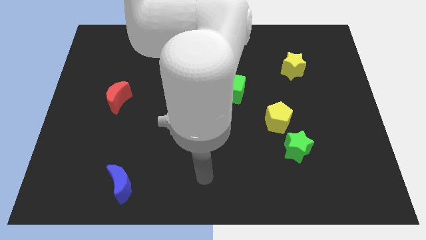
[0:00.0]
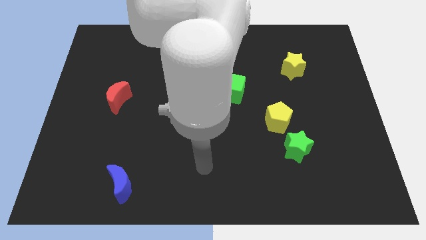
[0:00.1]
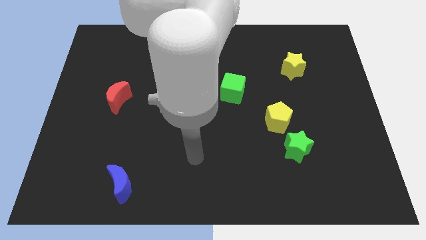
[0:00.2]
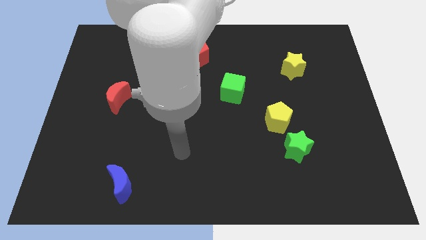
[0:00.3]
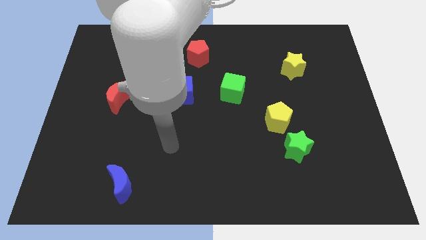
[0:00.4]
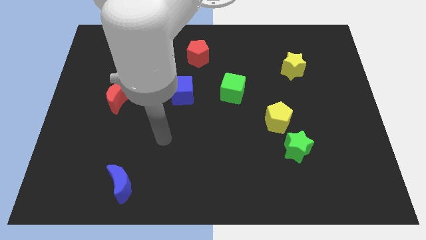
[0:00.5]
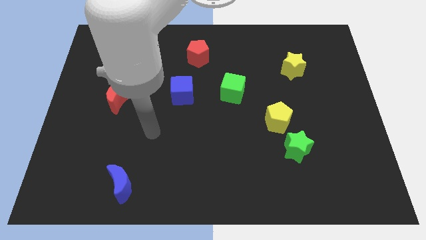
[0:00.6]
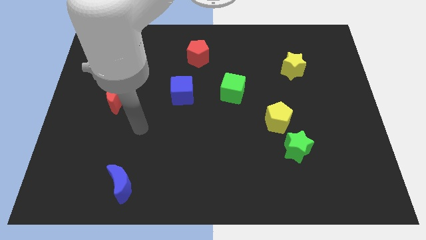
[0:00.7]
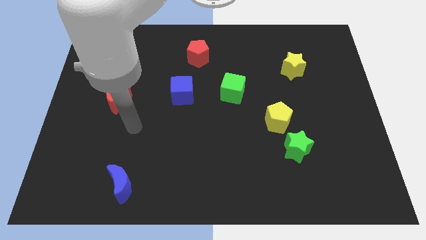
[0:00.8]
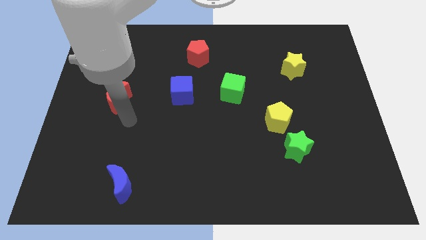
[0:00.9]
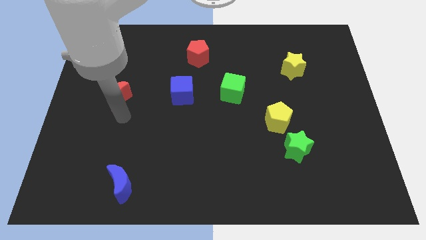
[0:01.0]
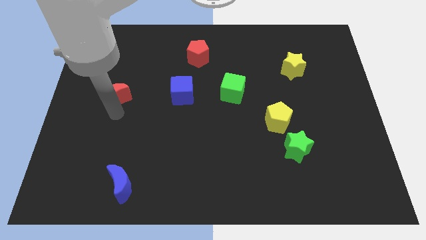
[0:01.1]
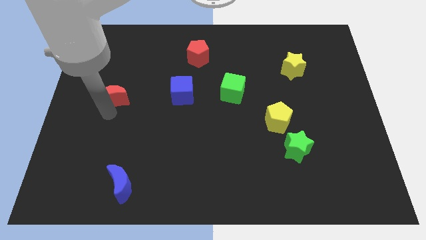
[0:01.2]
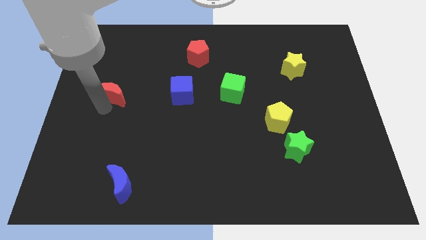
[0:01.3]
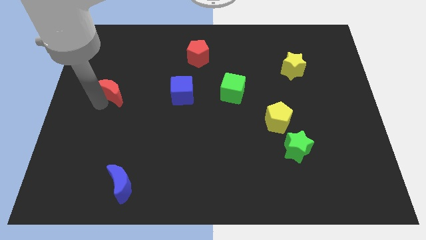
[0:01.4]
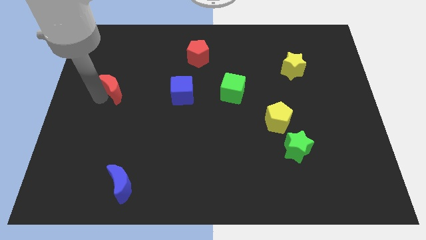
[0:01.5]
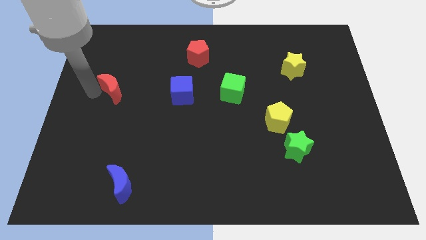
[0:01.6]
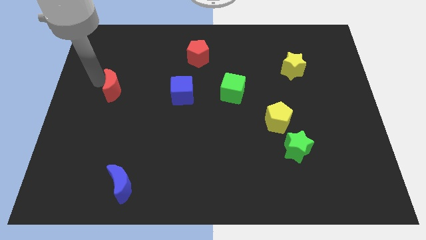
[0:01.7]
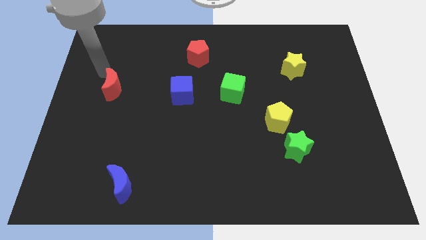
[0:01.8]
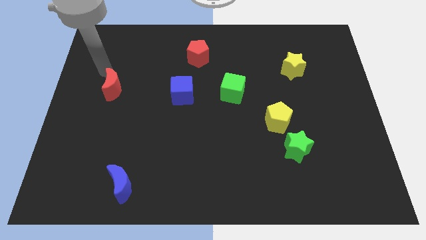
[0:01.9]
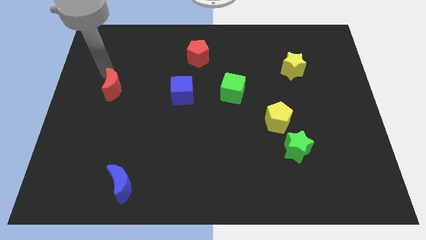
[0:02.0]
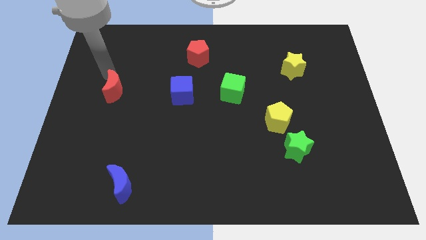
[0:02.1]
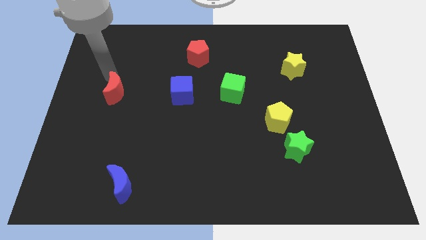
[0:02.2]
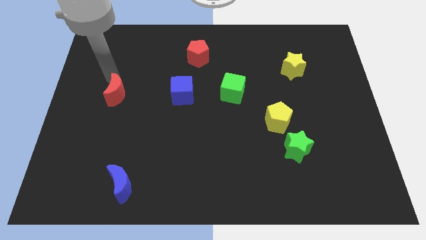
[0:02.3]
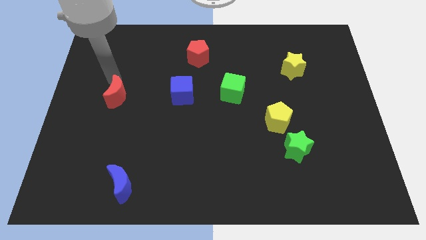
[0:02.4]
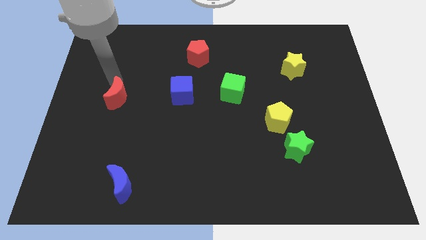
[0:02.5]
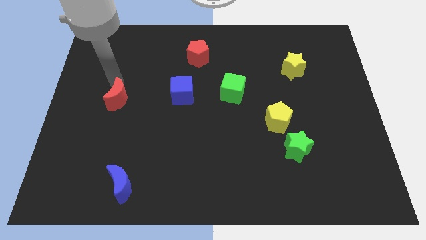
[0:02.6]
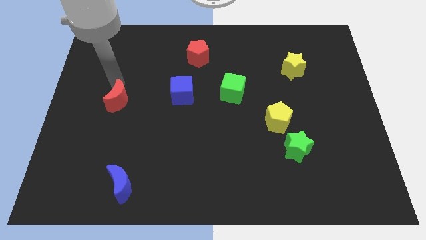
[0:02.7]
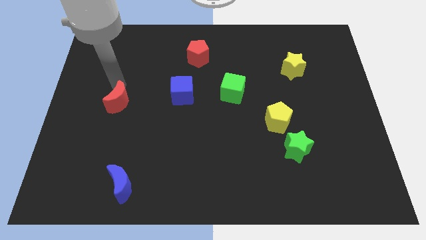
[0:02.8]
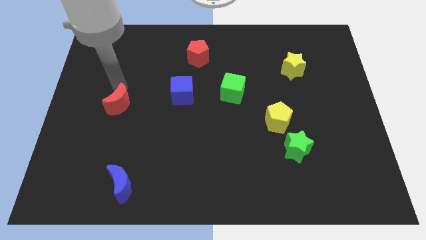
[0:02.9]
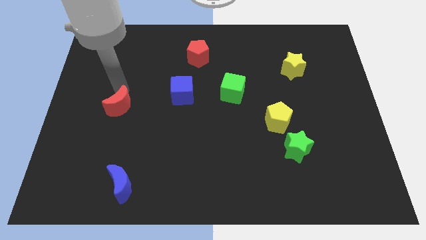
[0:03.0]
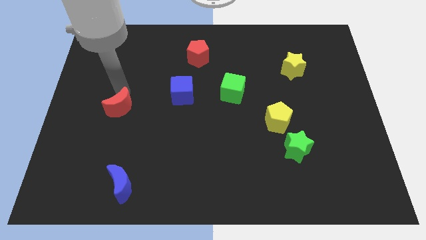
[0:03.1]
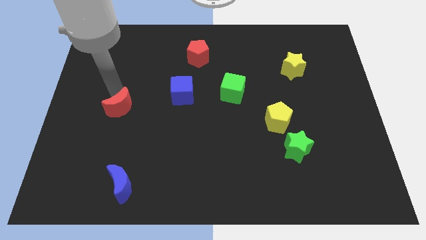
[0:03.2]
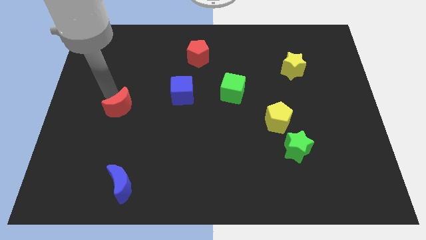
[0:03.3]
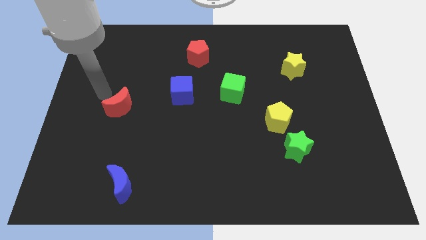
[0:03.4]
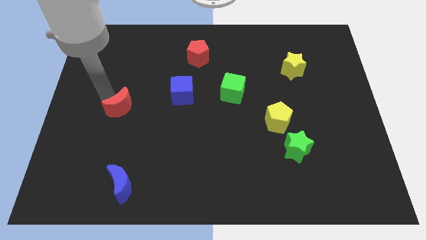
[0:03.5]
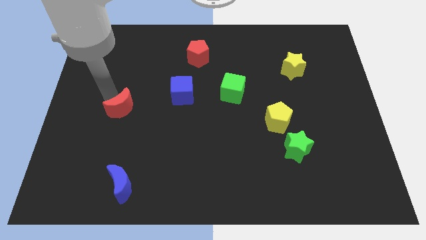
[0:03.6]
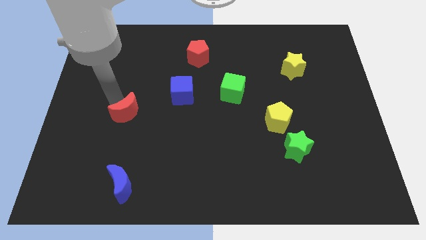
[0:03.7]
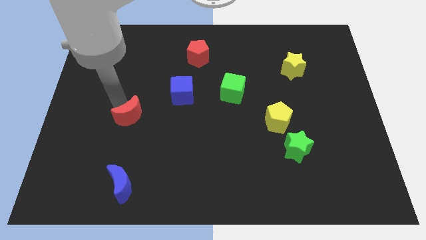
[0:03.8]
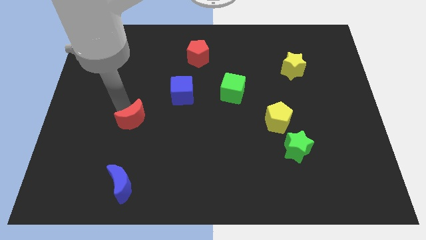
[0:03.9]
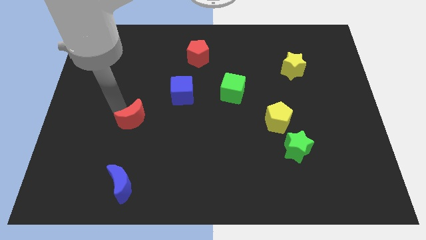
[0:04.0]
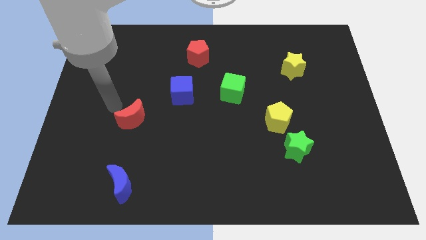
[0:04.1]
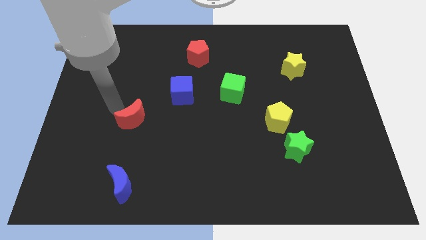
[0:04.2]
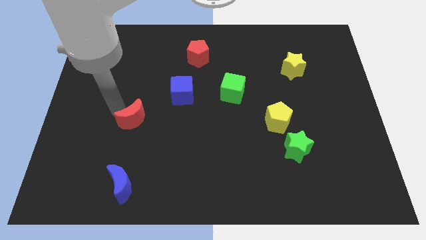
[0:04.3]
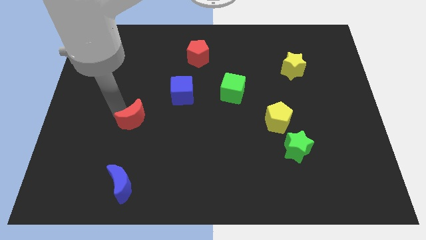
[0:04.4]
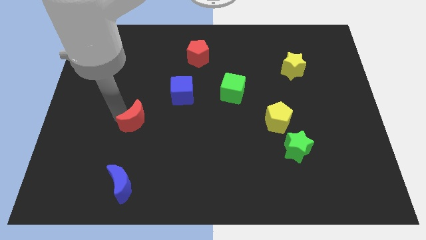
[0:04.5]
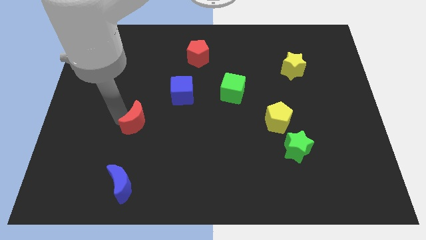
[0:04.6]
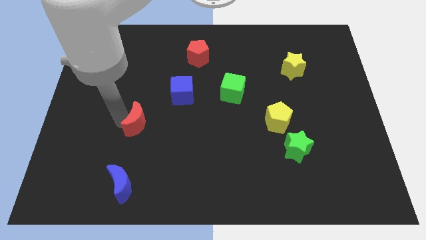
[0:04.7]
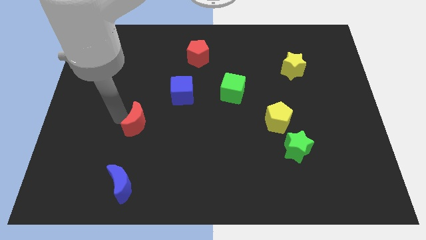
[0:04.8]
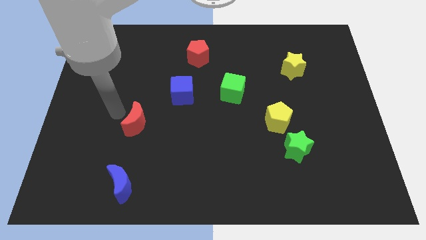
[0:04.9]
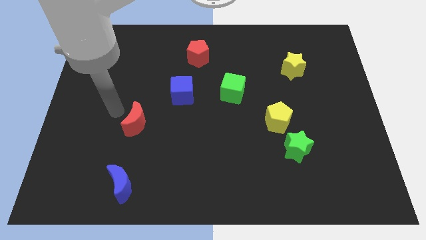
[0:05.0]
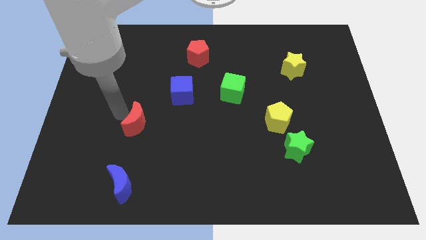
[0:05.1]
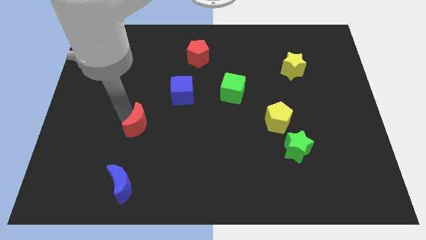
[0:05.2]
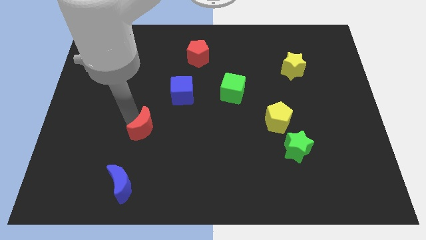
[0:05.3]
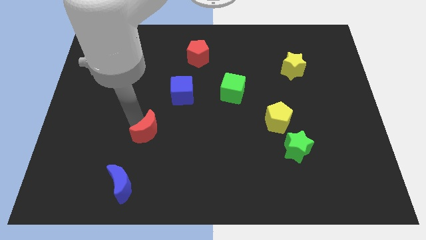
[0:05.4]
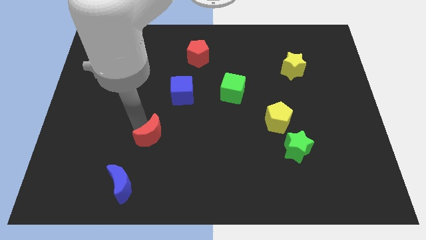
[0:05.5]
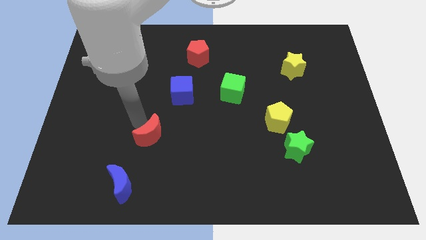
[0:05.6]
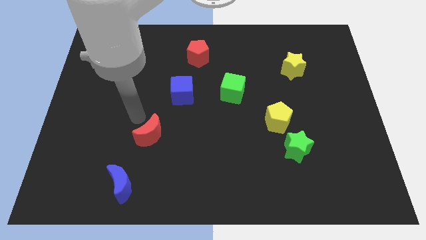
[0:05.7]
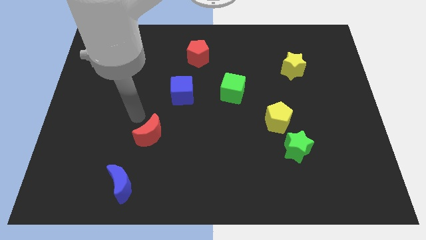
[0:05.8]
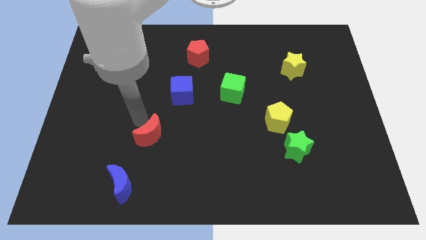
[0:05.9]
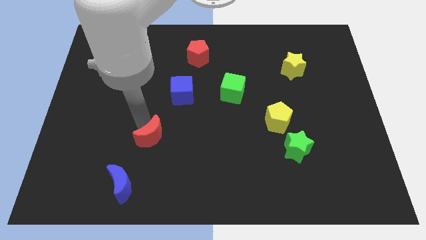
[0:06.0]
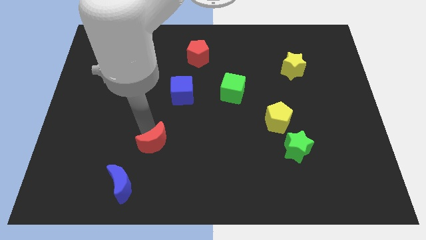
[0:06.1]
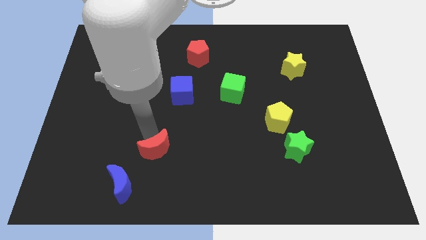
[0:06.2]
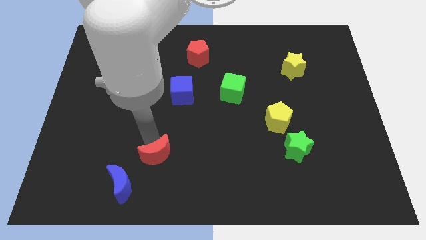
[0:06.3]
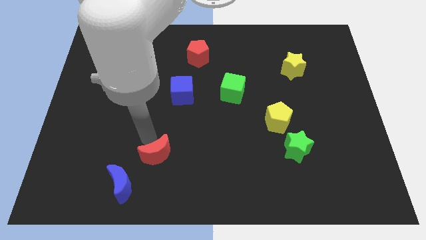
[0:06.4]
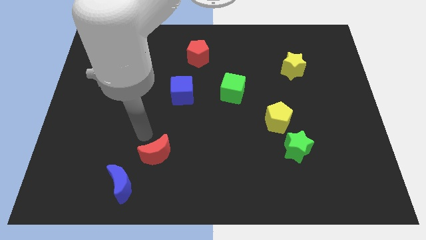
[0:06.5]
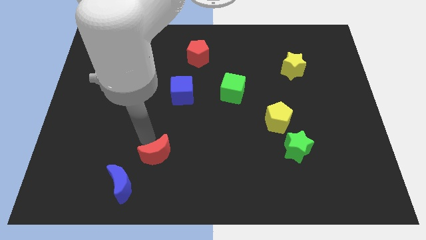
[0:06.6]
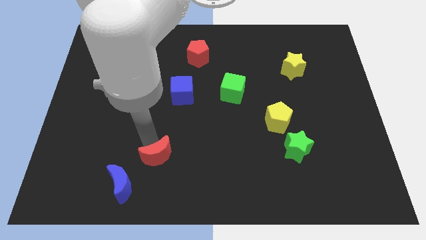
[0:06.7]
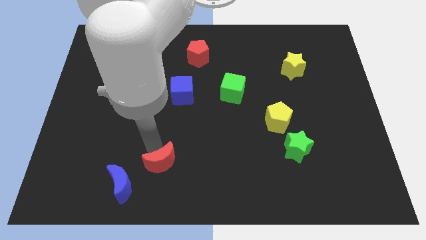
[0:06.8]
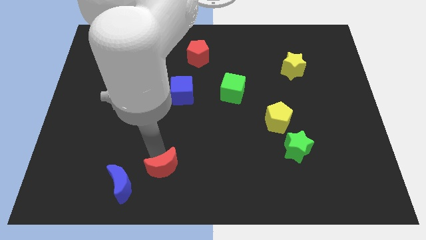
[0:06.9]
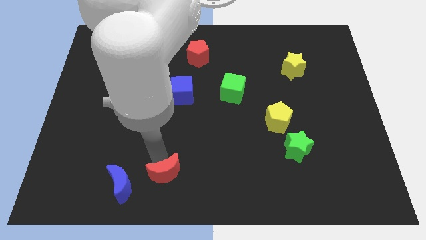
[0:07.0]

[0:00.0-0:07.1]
slide the red moon to the bottom
